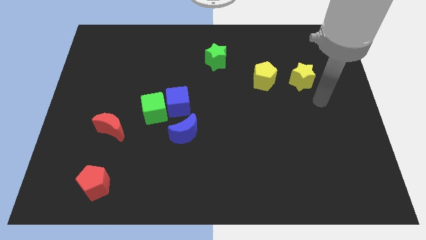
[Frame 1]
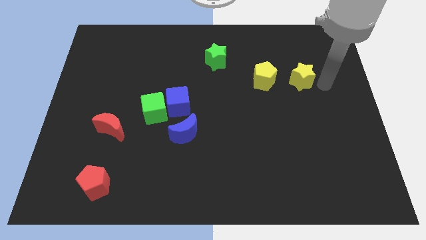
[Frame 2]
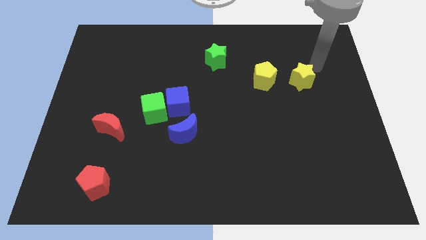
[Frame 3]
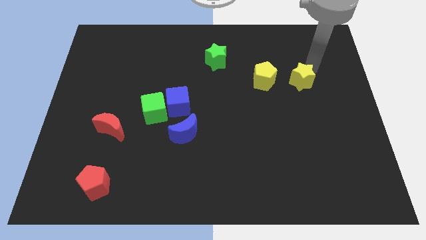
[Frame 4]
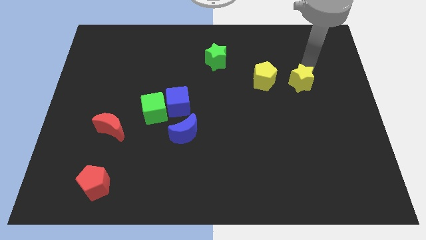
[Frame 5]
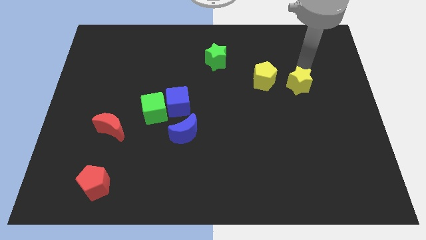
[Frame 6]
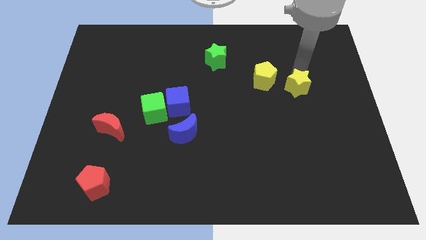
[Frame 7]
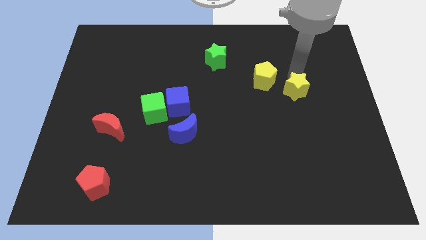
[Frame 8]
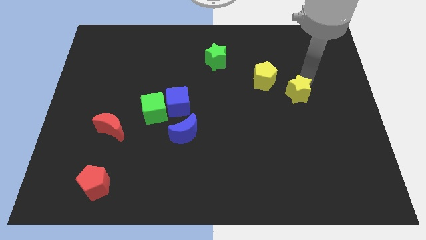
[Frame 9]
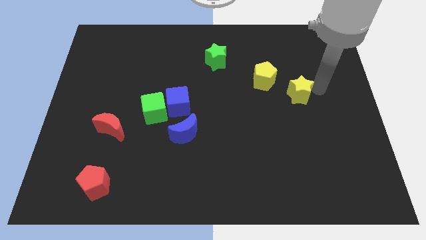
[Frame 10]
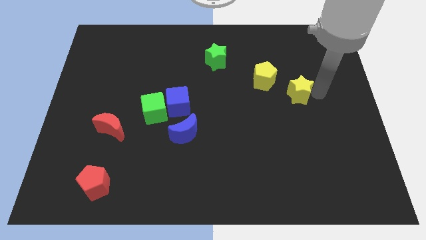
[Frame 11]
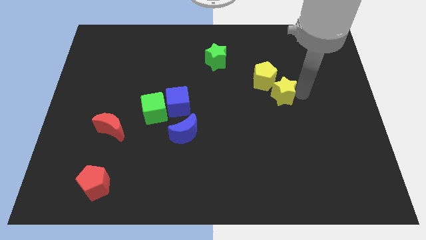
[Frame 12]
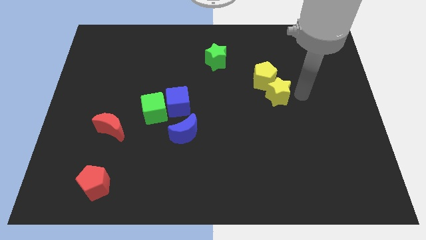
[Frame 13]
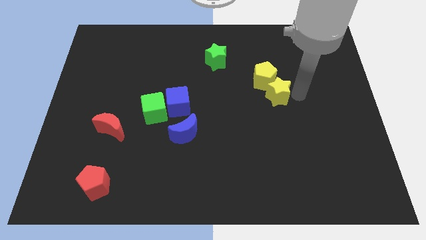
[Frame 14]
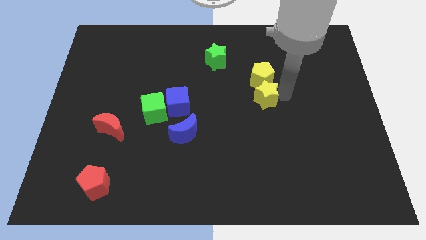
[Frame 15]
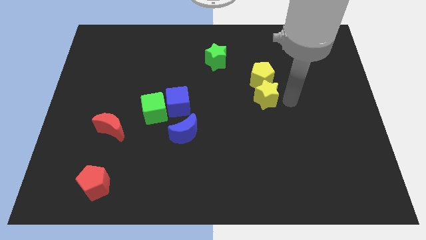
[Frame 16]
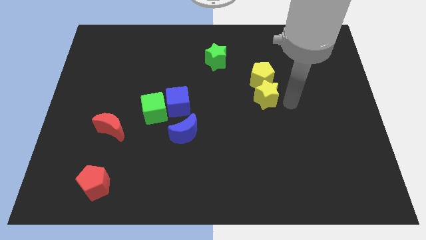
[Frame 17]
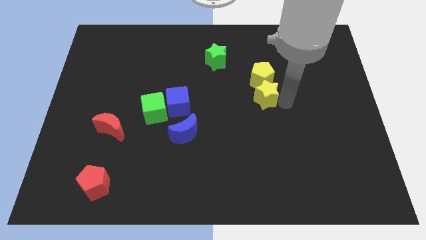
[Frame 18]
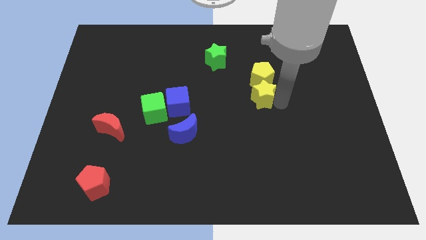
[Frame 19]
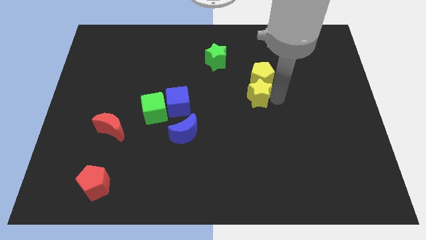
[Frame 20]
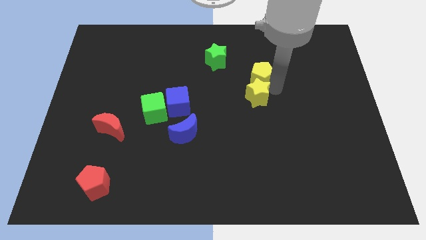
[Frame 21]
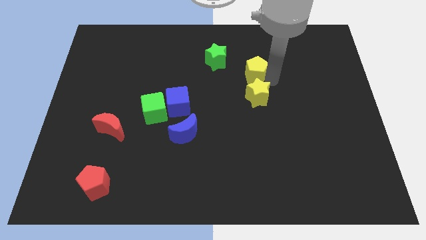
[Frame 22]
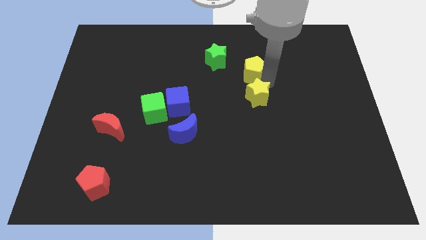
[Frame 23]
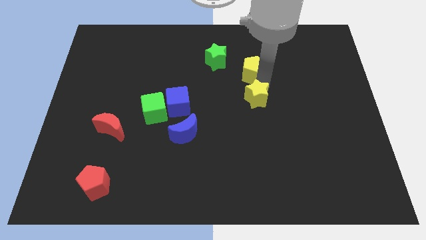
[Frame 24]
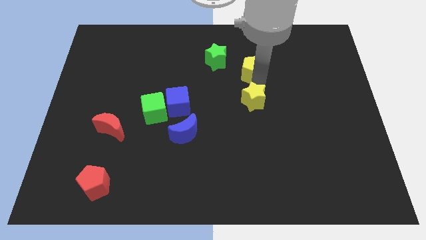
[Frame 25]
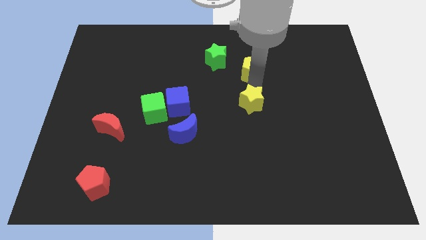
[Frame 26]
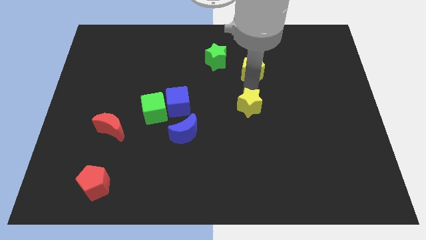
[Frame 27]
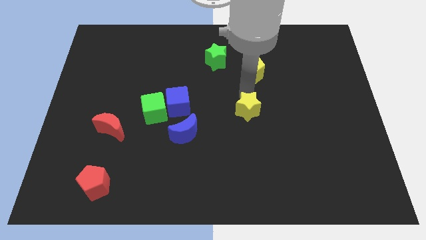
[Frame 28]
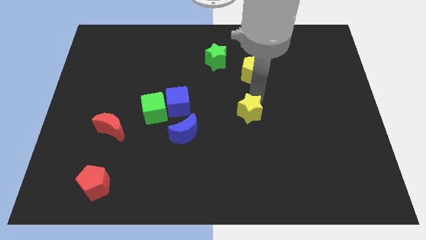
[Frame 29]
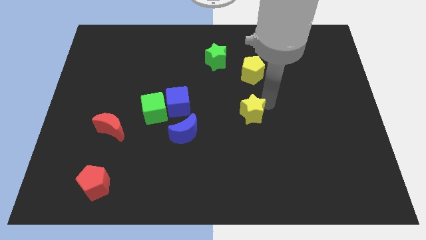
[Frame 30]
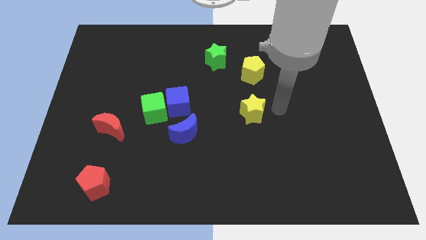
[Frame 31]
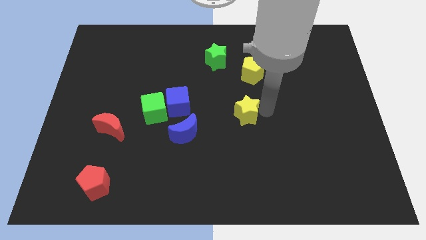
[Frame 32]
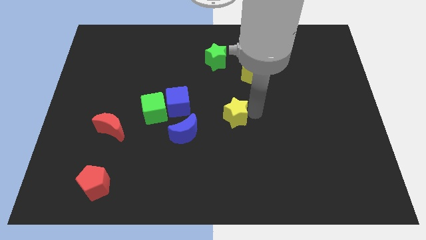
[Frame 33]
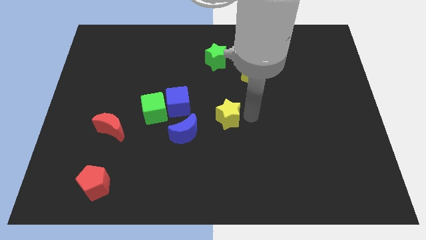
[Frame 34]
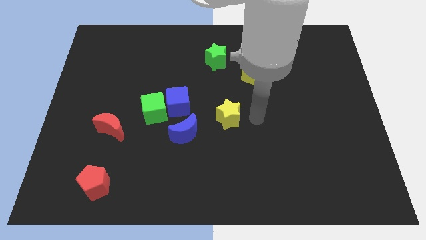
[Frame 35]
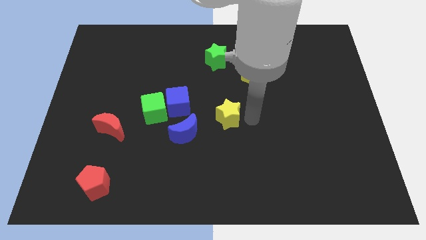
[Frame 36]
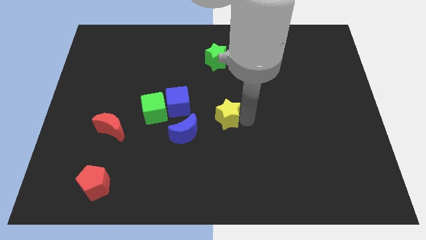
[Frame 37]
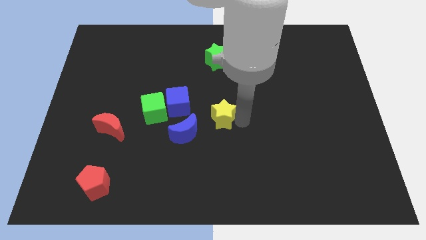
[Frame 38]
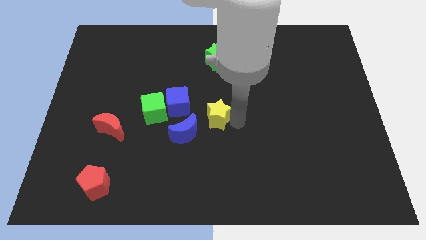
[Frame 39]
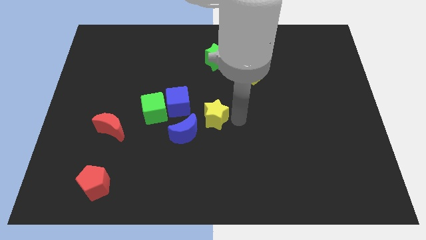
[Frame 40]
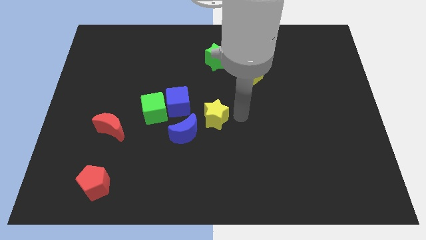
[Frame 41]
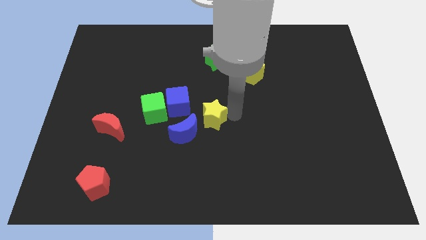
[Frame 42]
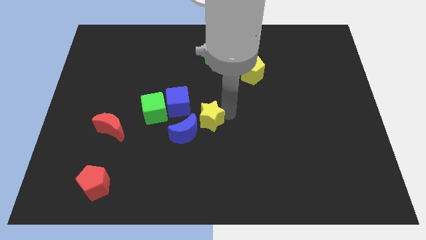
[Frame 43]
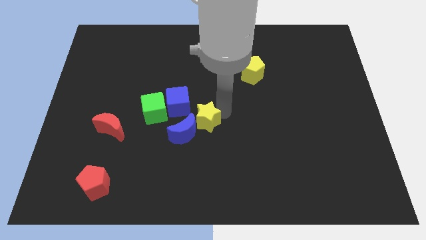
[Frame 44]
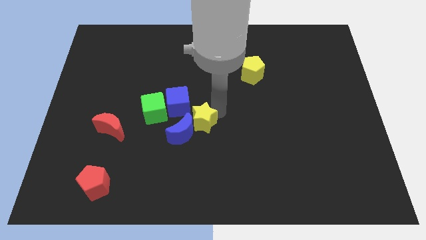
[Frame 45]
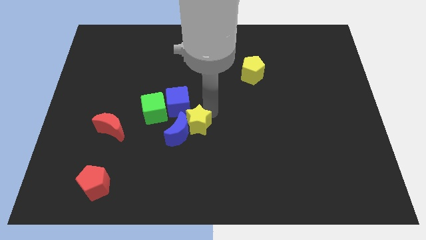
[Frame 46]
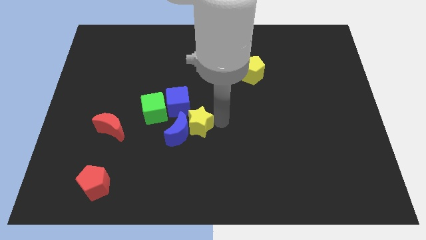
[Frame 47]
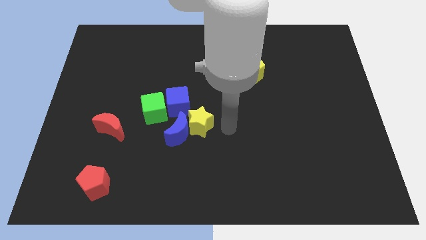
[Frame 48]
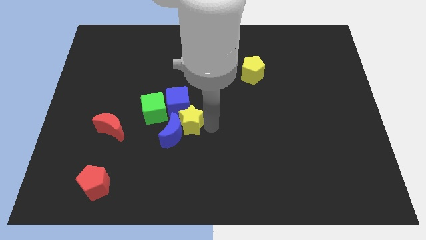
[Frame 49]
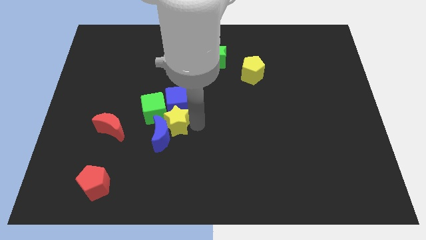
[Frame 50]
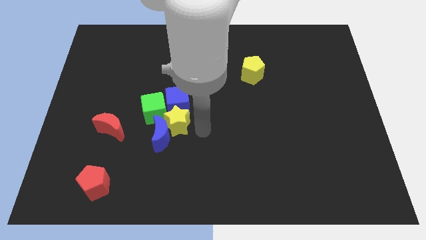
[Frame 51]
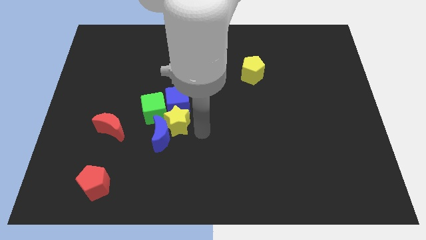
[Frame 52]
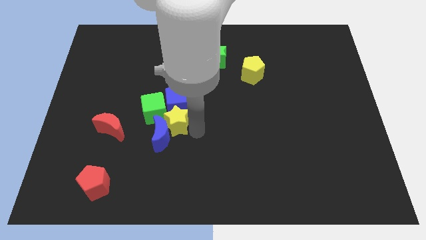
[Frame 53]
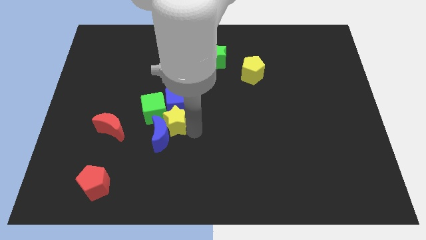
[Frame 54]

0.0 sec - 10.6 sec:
put the yellow star towards the green cube

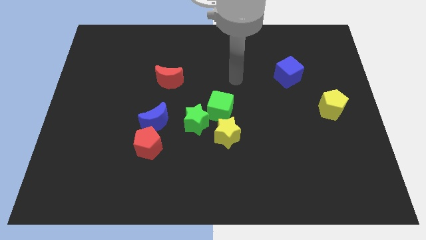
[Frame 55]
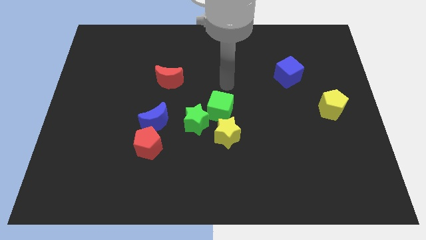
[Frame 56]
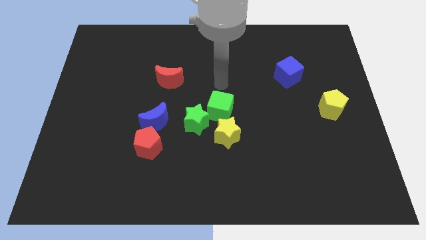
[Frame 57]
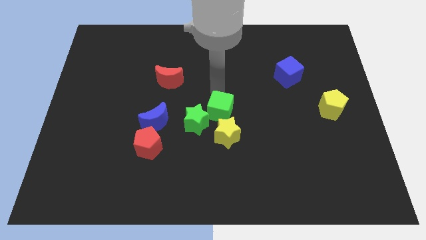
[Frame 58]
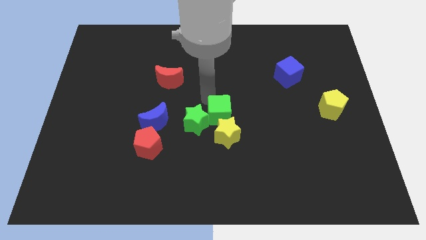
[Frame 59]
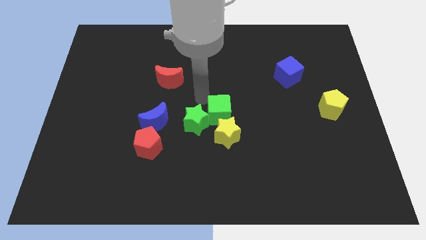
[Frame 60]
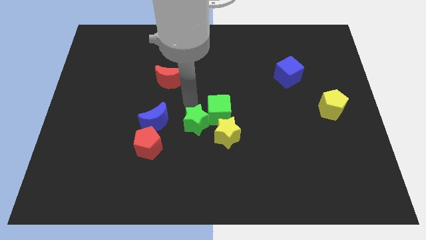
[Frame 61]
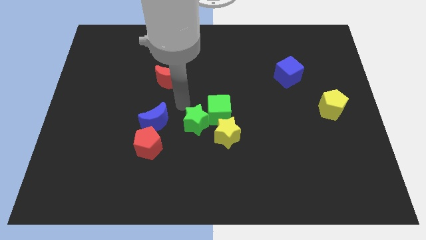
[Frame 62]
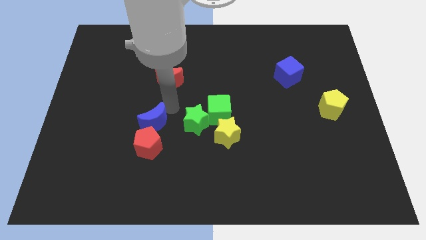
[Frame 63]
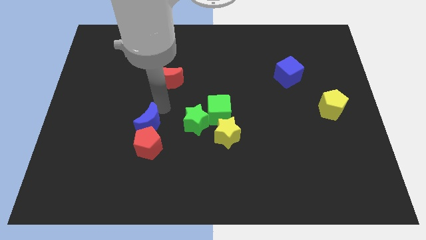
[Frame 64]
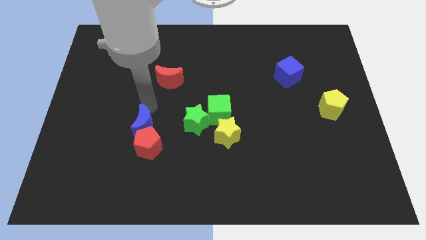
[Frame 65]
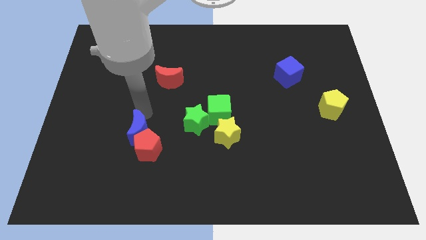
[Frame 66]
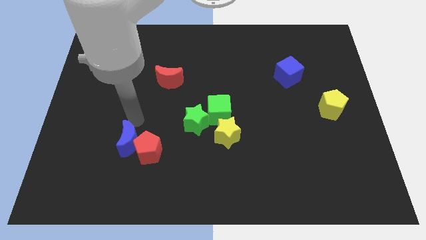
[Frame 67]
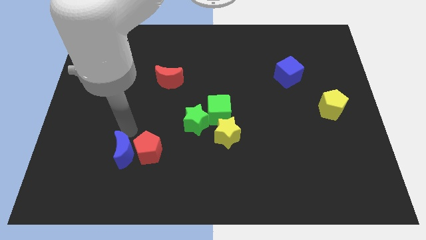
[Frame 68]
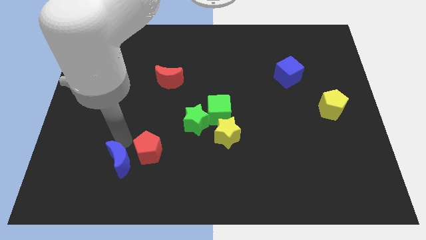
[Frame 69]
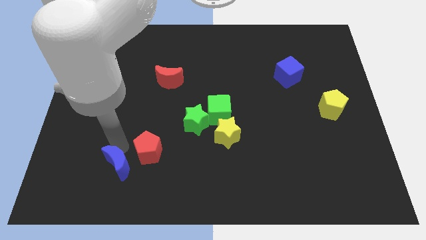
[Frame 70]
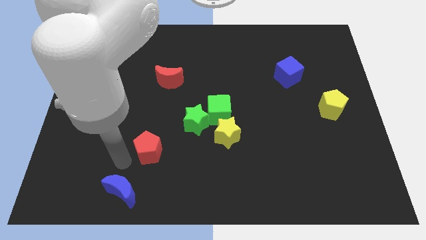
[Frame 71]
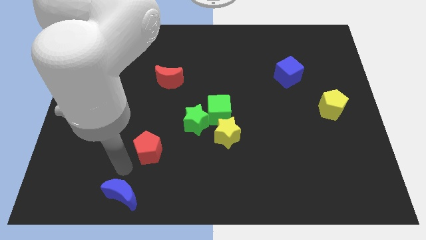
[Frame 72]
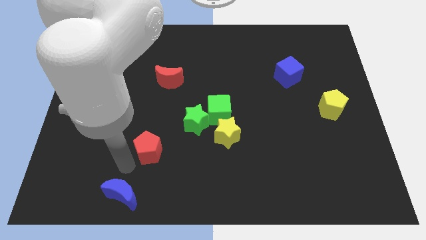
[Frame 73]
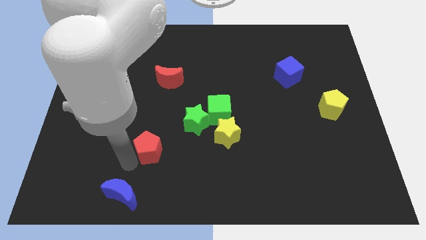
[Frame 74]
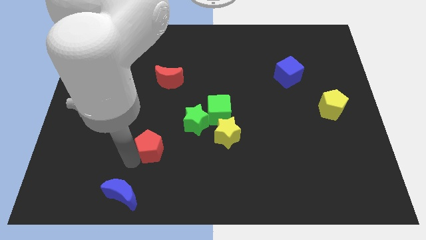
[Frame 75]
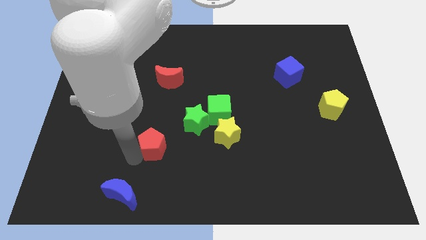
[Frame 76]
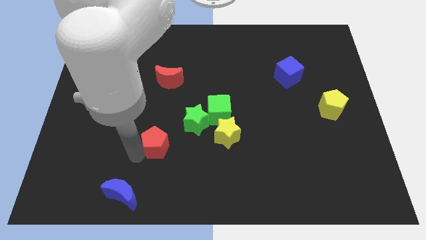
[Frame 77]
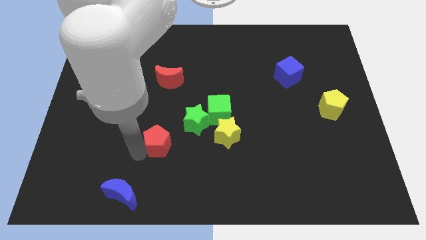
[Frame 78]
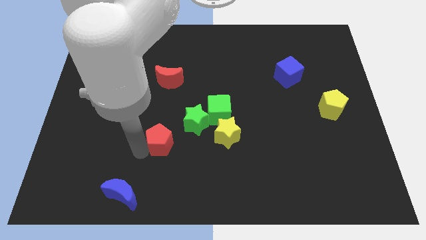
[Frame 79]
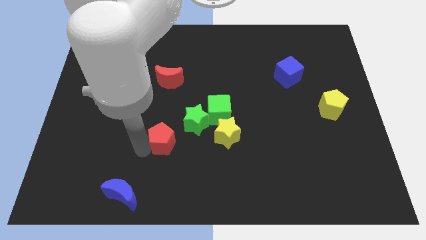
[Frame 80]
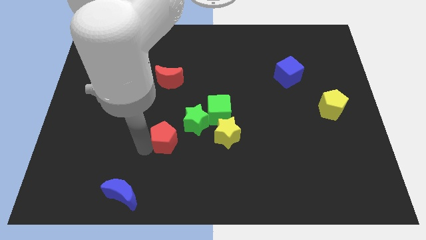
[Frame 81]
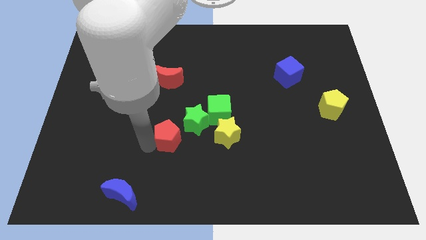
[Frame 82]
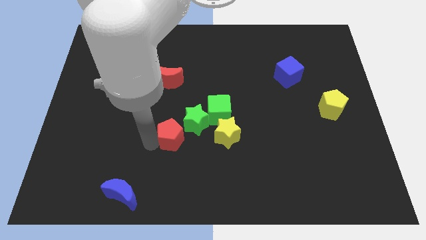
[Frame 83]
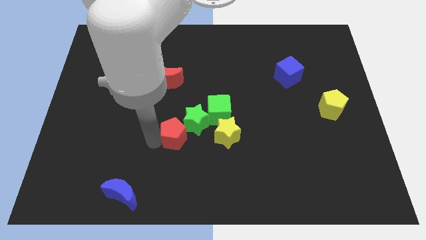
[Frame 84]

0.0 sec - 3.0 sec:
push the red pentagon towards the green star
